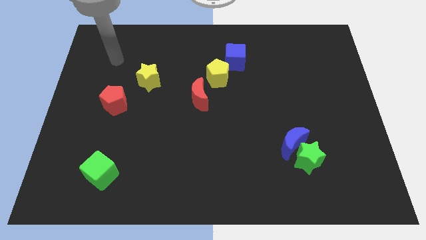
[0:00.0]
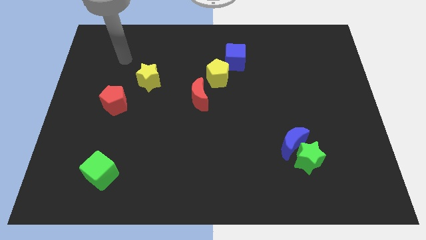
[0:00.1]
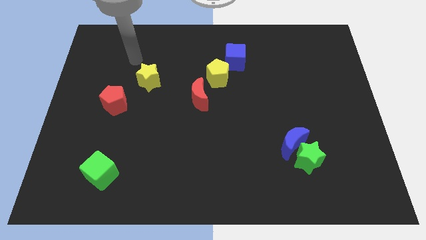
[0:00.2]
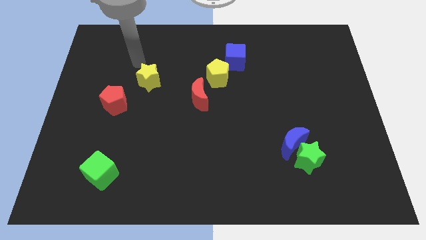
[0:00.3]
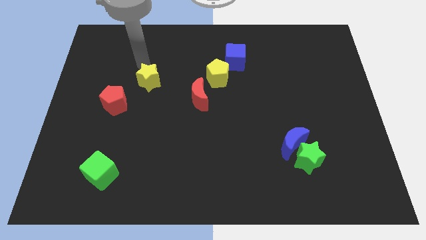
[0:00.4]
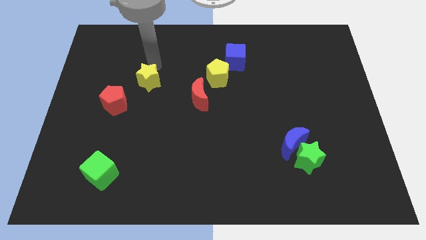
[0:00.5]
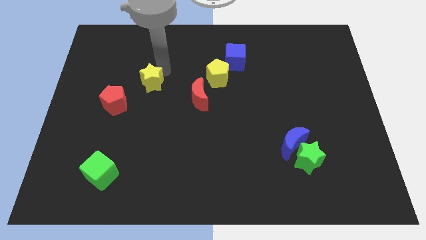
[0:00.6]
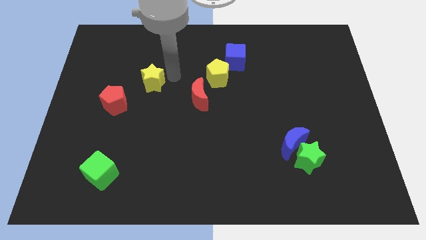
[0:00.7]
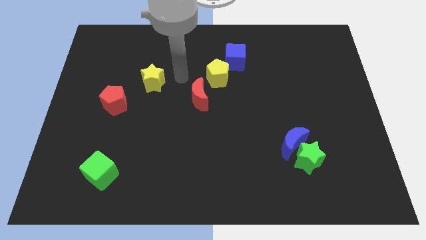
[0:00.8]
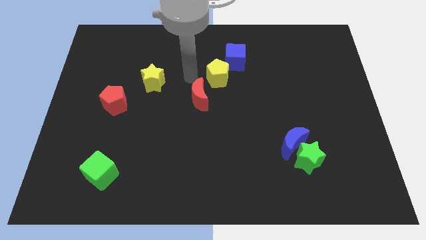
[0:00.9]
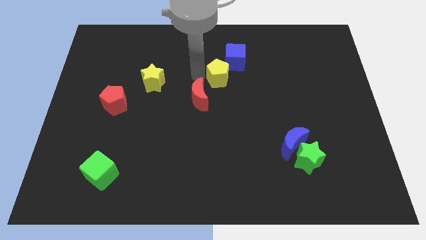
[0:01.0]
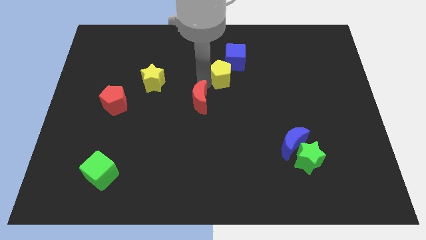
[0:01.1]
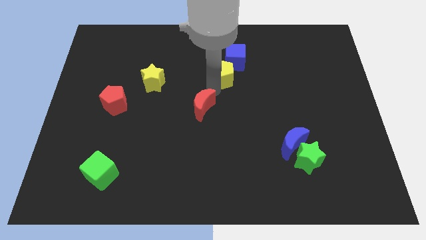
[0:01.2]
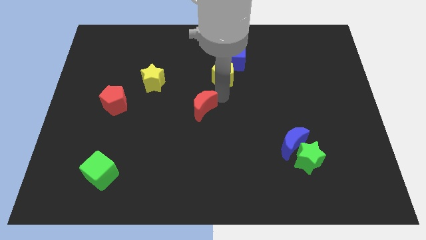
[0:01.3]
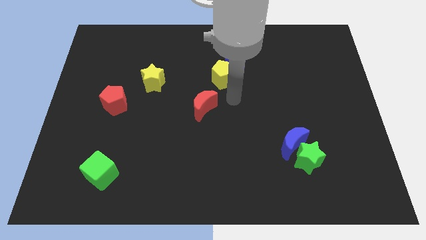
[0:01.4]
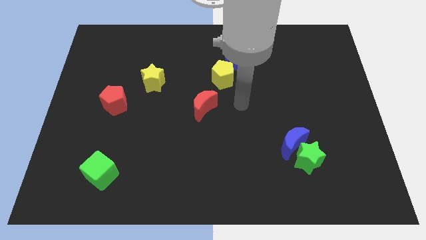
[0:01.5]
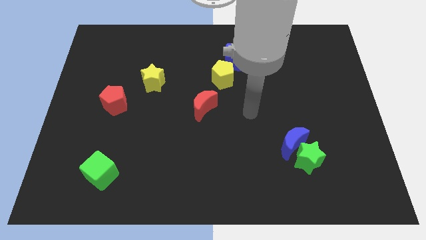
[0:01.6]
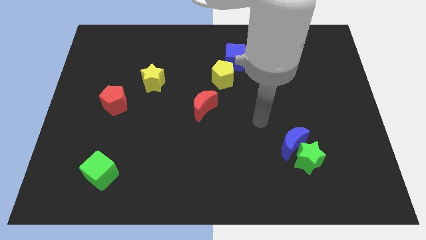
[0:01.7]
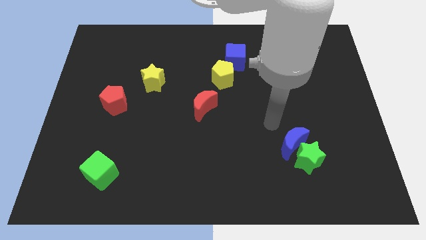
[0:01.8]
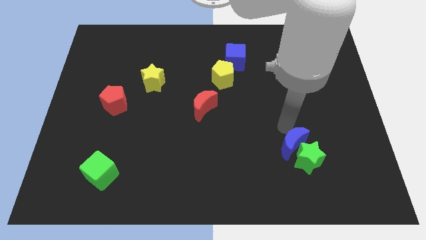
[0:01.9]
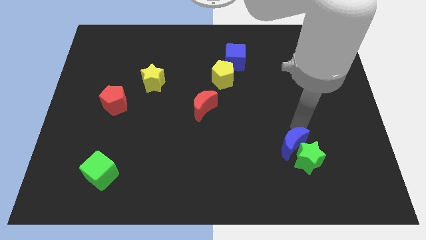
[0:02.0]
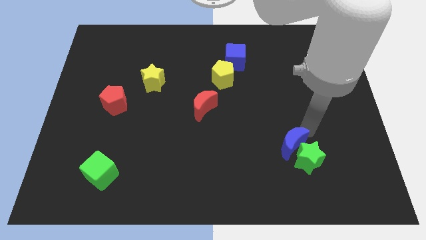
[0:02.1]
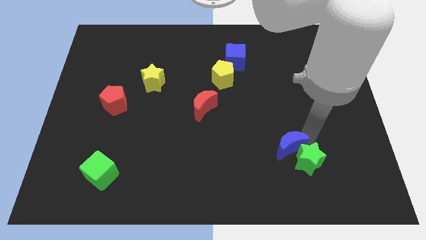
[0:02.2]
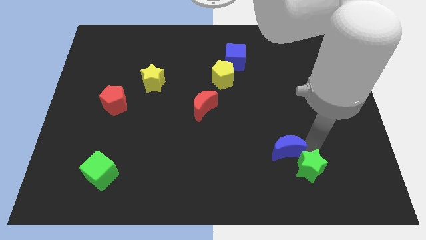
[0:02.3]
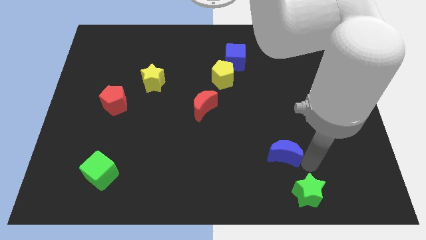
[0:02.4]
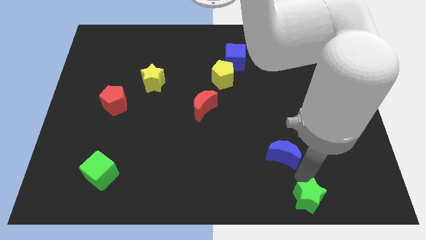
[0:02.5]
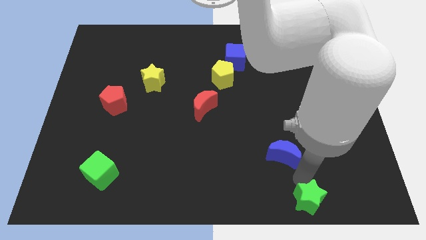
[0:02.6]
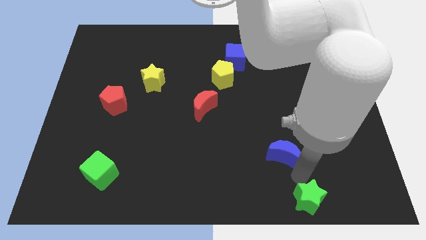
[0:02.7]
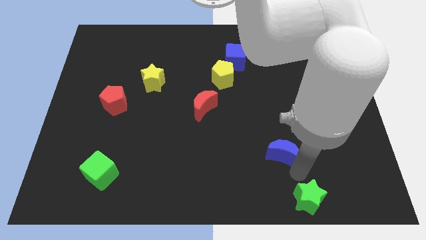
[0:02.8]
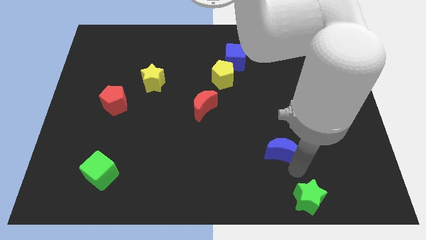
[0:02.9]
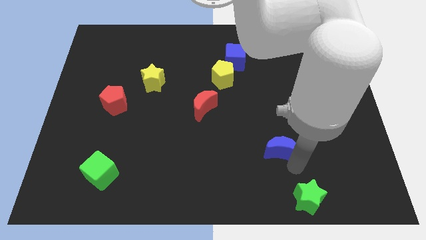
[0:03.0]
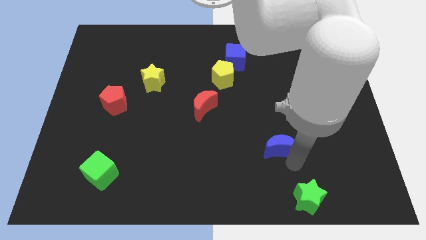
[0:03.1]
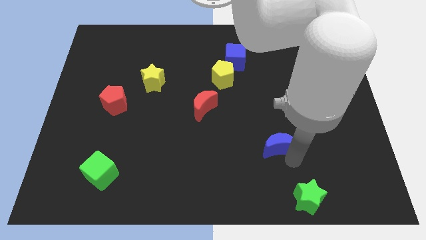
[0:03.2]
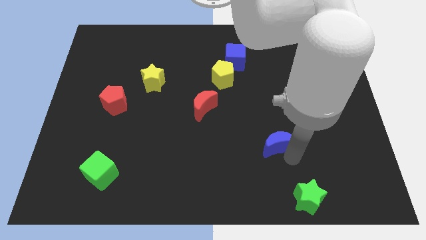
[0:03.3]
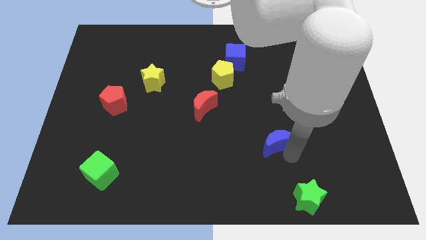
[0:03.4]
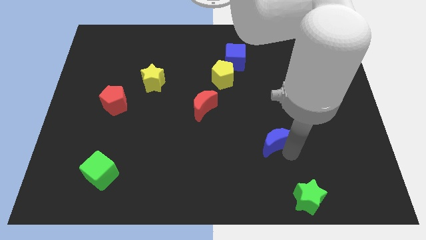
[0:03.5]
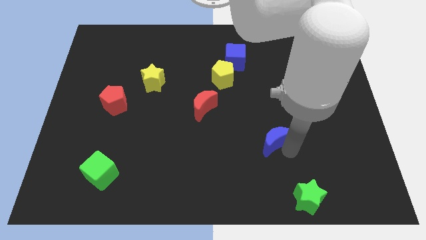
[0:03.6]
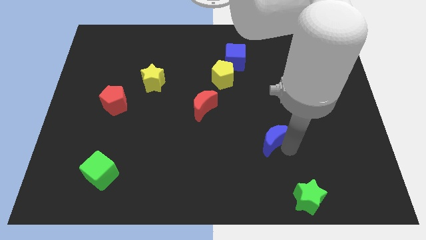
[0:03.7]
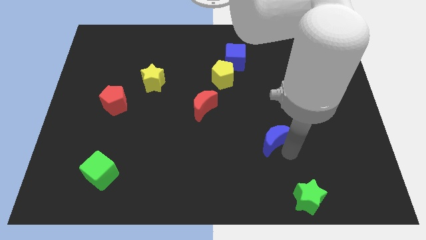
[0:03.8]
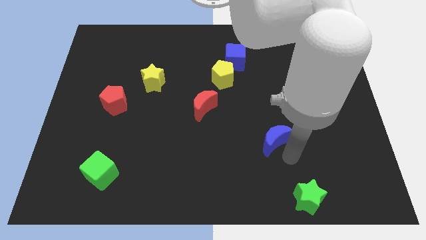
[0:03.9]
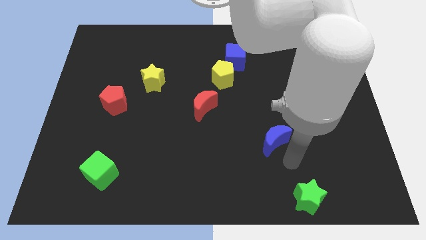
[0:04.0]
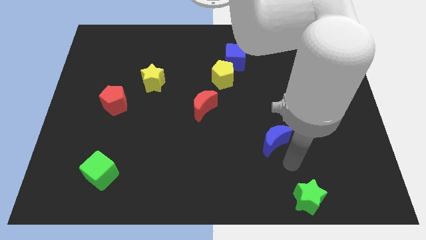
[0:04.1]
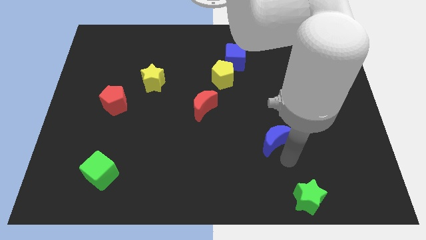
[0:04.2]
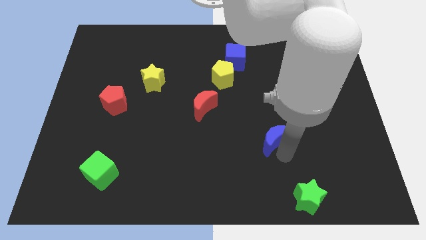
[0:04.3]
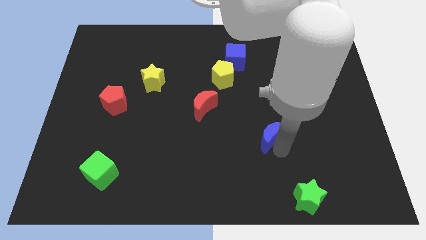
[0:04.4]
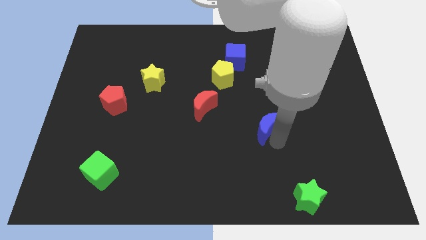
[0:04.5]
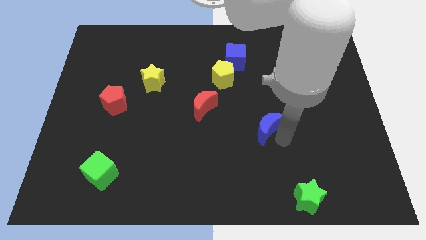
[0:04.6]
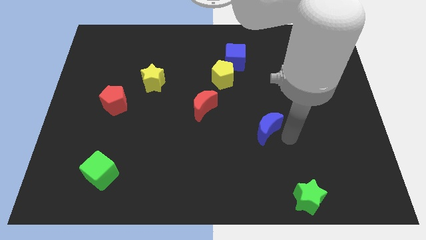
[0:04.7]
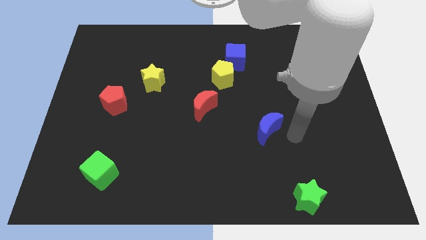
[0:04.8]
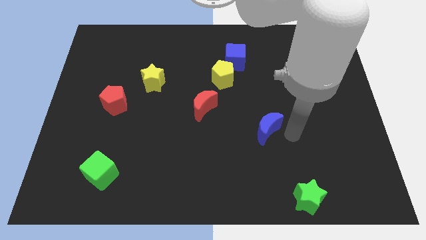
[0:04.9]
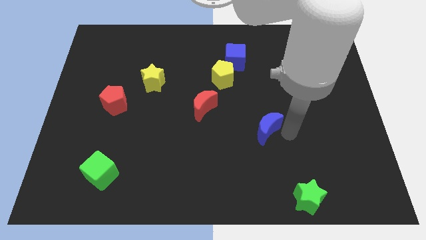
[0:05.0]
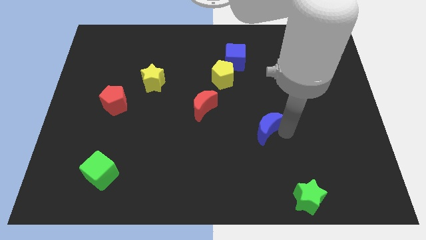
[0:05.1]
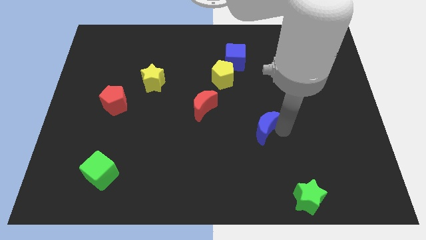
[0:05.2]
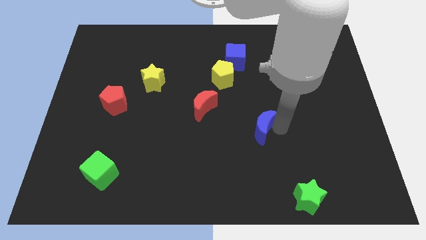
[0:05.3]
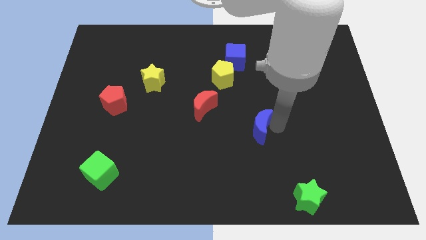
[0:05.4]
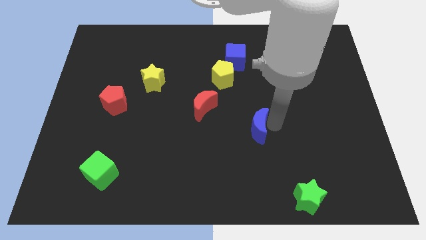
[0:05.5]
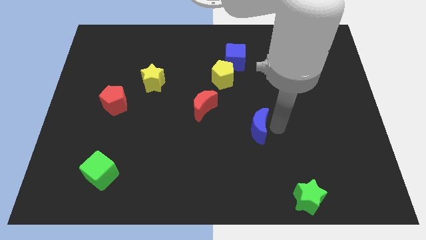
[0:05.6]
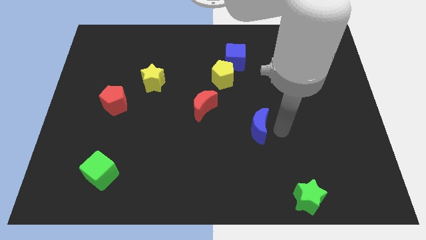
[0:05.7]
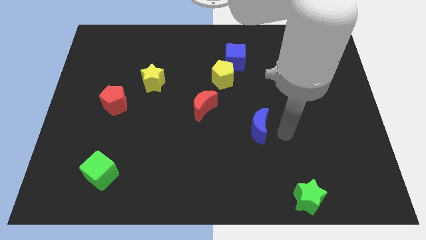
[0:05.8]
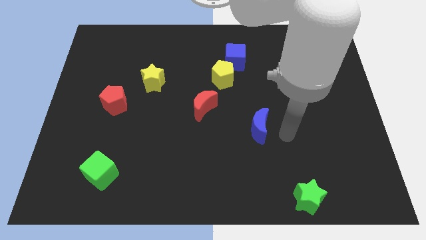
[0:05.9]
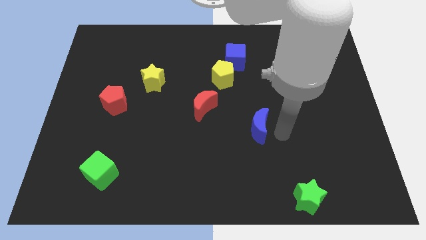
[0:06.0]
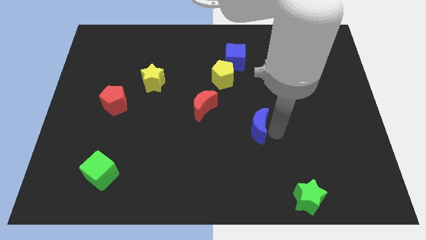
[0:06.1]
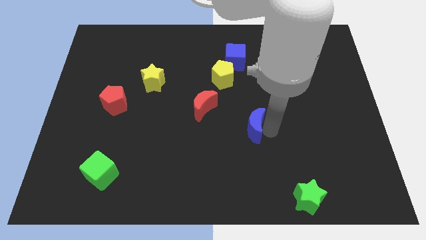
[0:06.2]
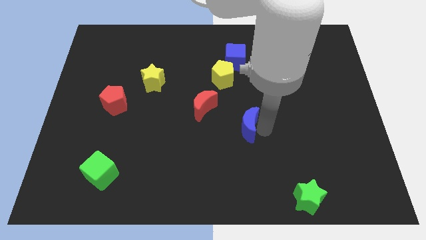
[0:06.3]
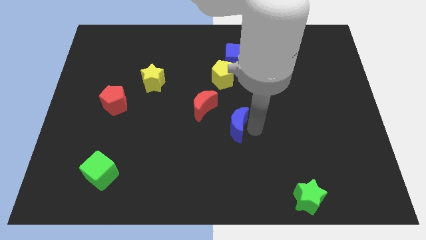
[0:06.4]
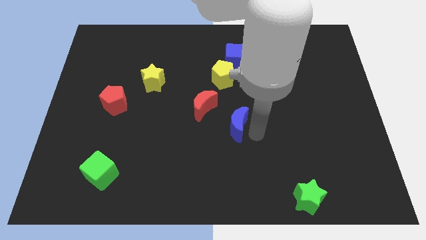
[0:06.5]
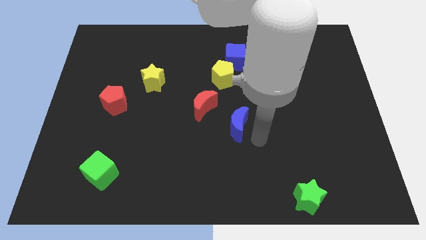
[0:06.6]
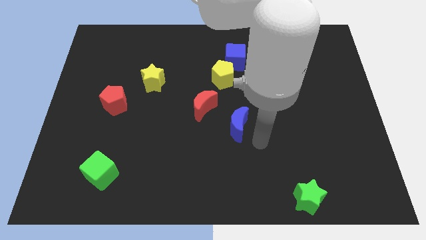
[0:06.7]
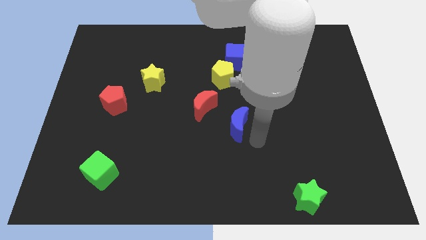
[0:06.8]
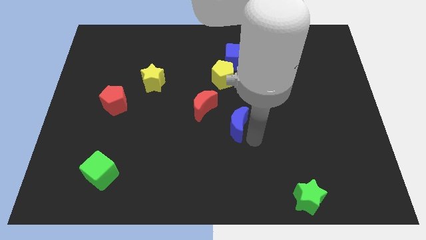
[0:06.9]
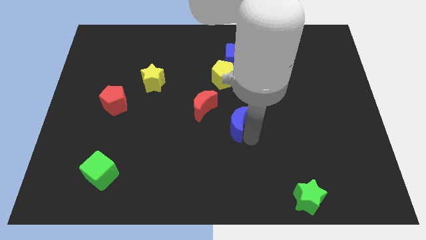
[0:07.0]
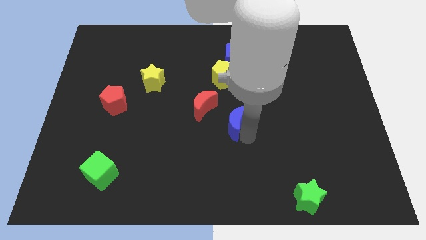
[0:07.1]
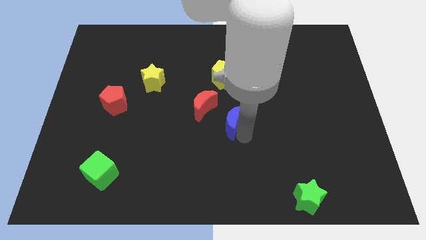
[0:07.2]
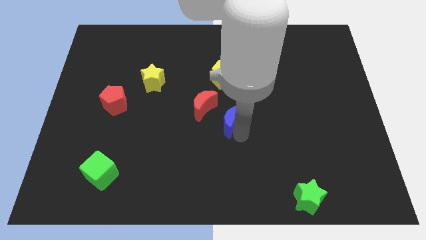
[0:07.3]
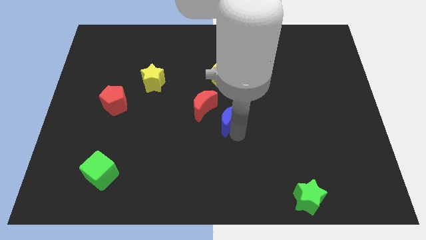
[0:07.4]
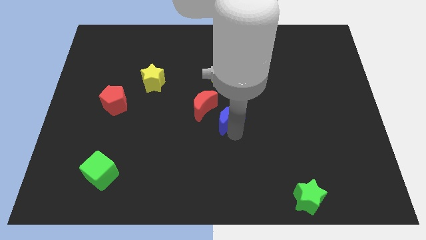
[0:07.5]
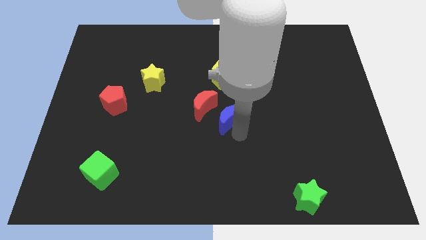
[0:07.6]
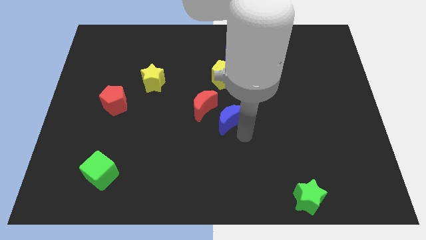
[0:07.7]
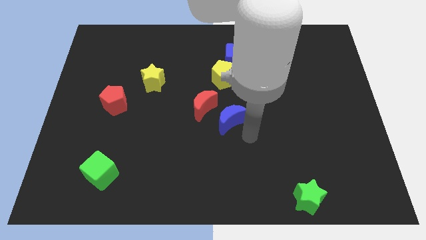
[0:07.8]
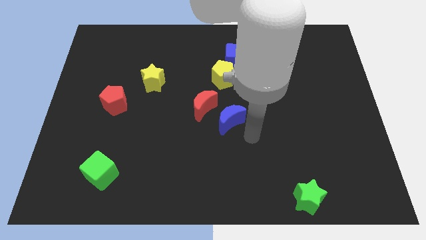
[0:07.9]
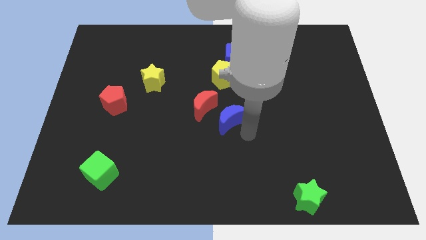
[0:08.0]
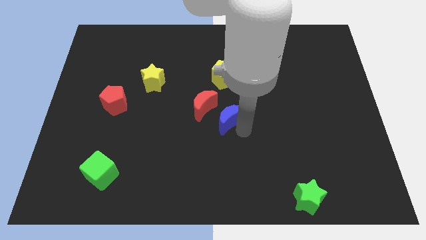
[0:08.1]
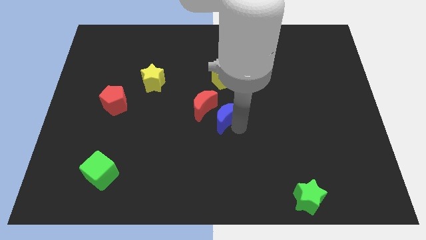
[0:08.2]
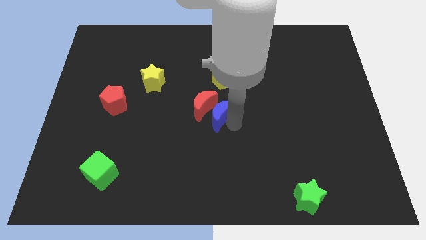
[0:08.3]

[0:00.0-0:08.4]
put the blue moon next to the red moon
